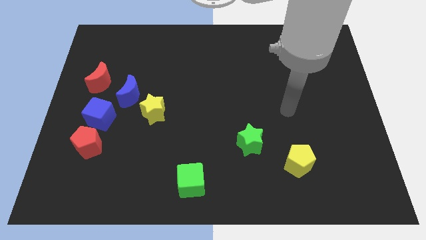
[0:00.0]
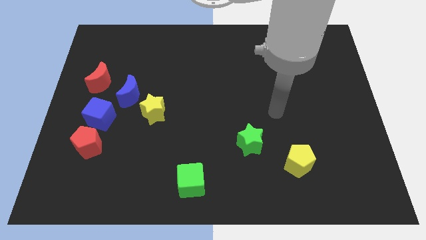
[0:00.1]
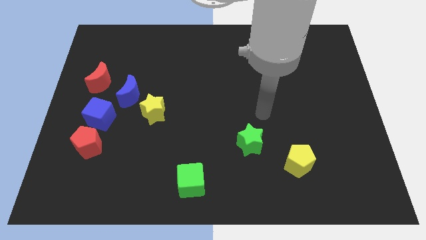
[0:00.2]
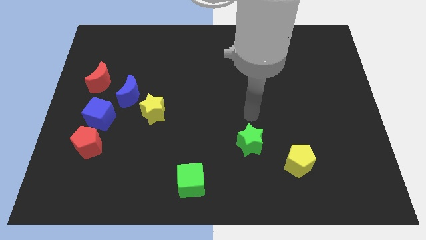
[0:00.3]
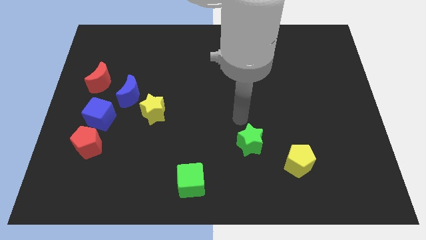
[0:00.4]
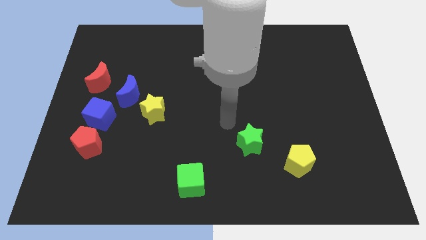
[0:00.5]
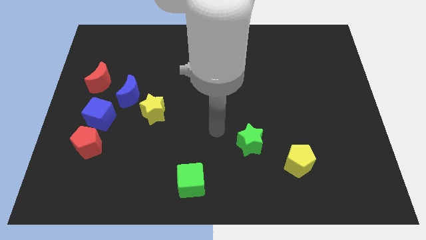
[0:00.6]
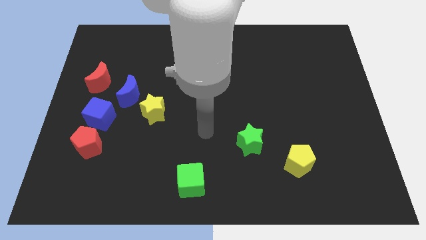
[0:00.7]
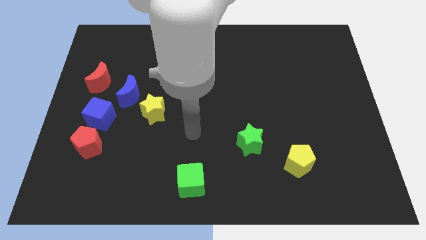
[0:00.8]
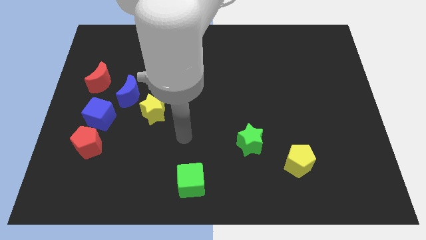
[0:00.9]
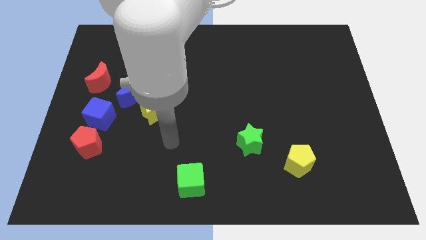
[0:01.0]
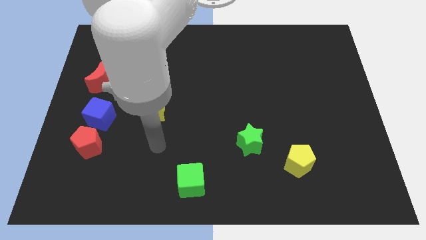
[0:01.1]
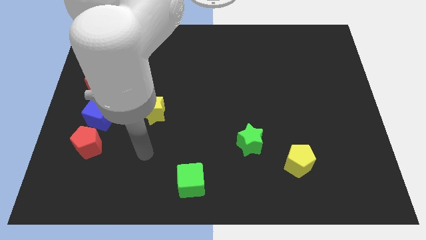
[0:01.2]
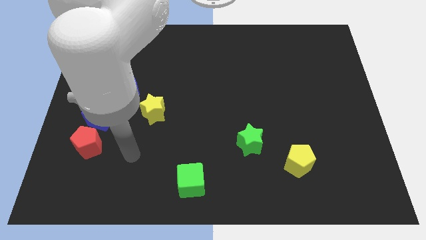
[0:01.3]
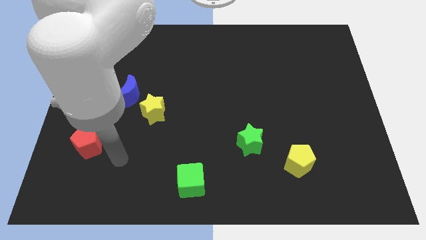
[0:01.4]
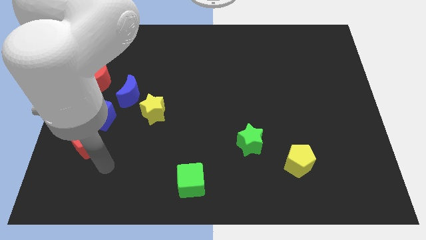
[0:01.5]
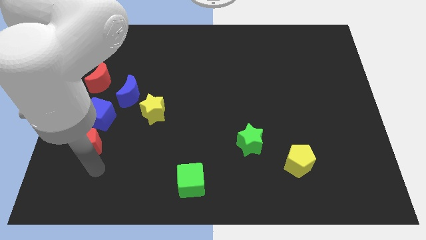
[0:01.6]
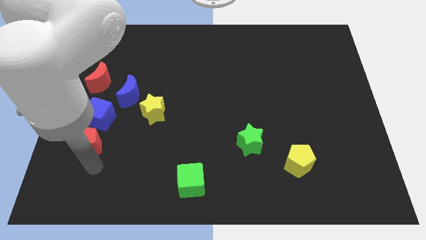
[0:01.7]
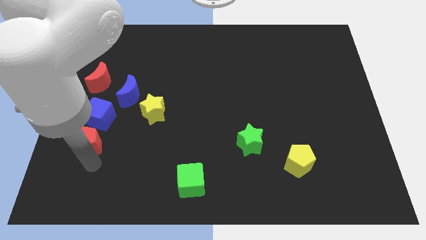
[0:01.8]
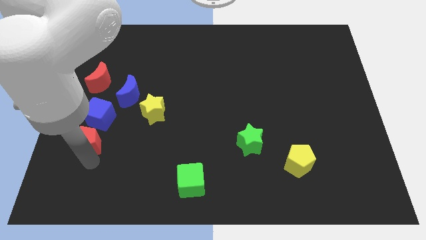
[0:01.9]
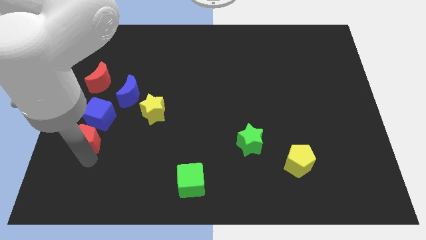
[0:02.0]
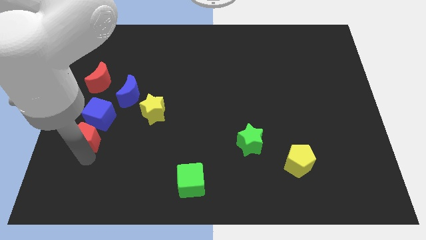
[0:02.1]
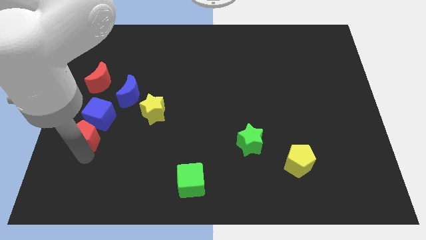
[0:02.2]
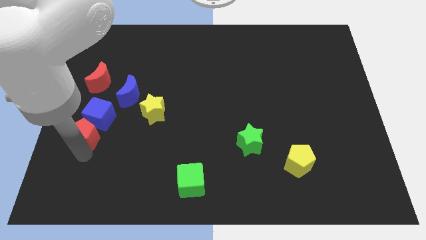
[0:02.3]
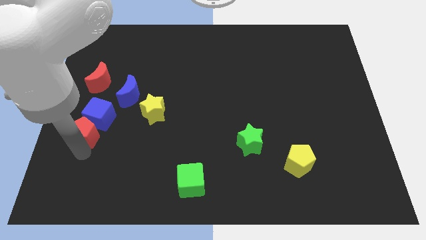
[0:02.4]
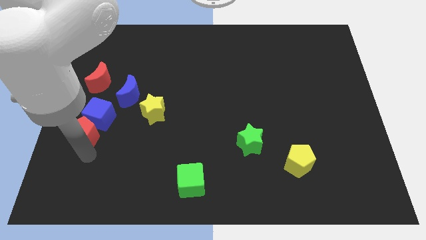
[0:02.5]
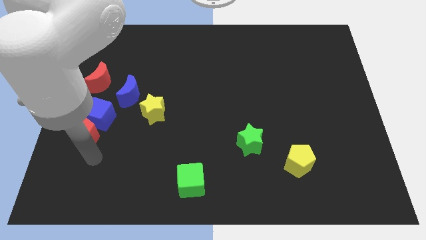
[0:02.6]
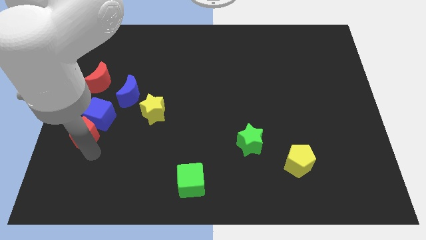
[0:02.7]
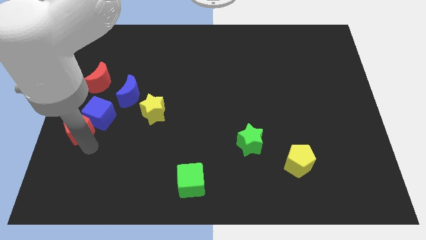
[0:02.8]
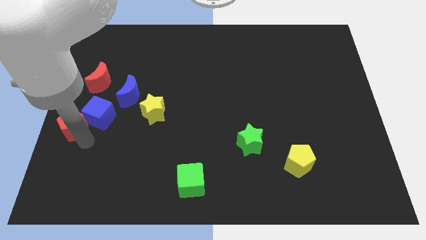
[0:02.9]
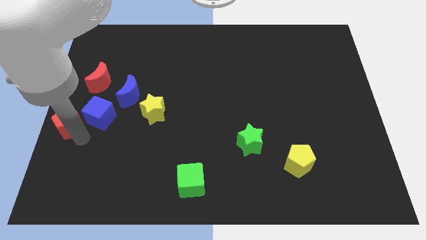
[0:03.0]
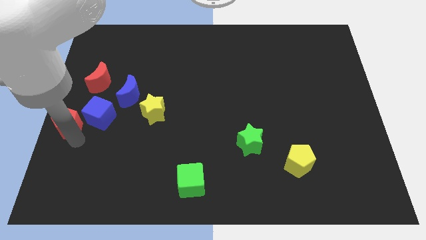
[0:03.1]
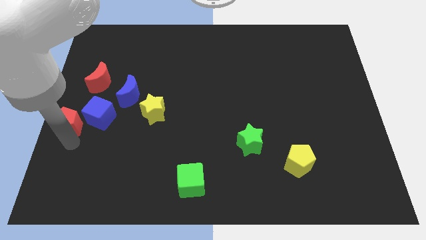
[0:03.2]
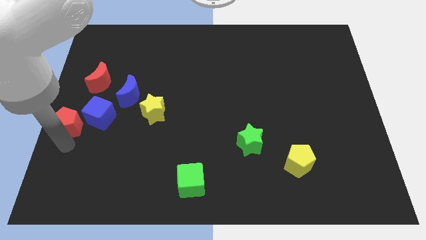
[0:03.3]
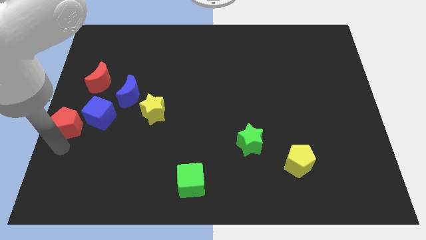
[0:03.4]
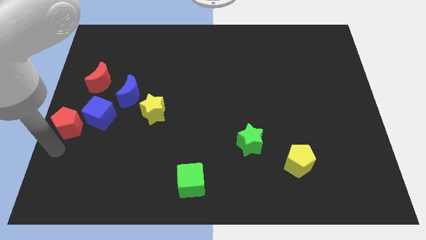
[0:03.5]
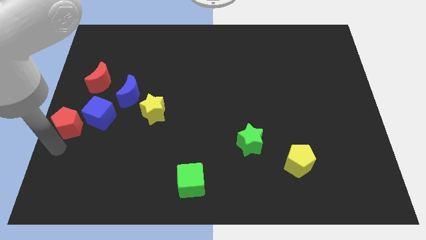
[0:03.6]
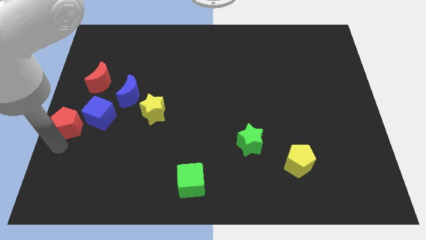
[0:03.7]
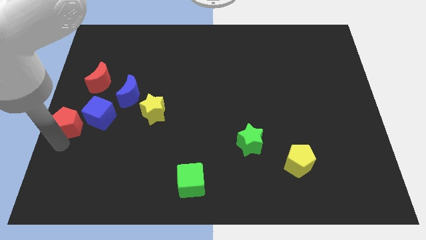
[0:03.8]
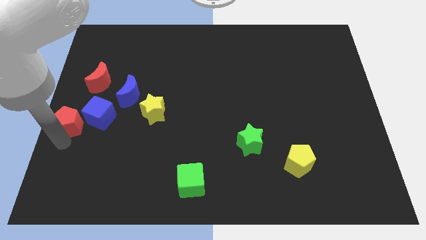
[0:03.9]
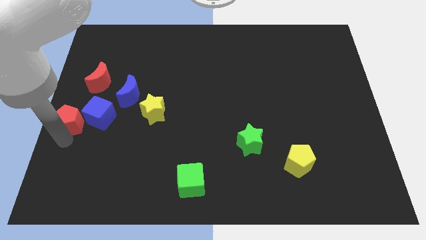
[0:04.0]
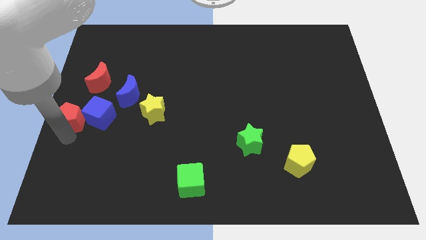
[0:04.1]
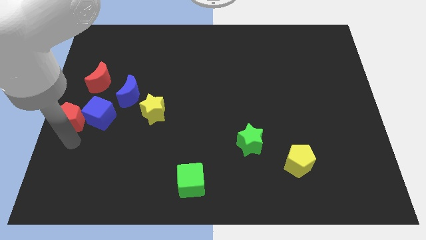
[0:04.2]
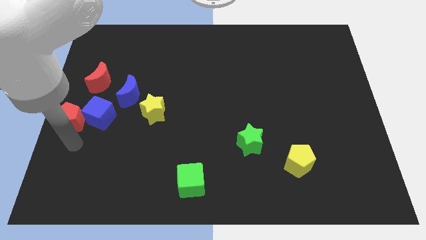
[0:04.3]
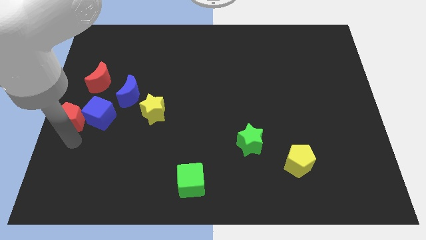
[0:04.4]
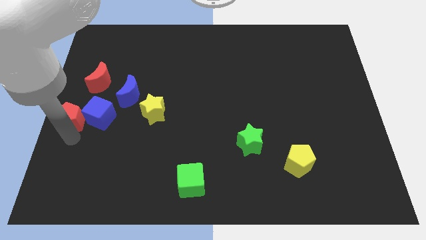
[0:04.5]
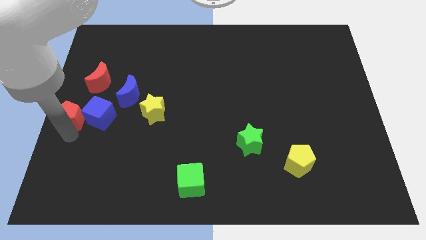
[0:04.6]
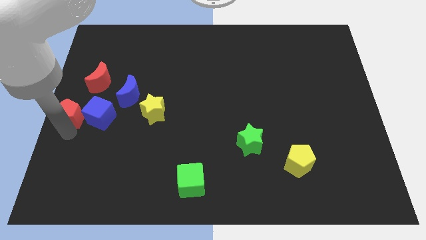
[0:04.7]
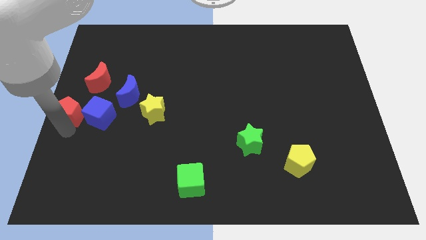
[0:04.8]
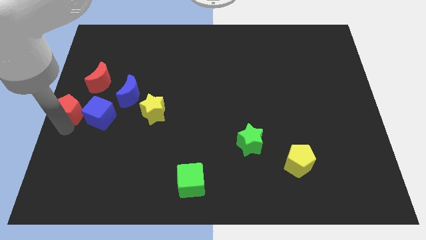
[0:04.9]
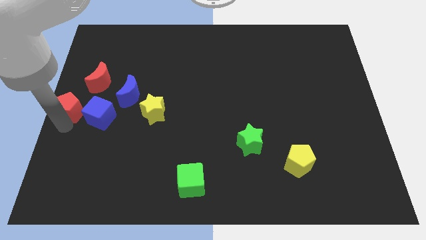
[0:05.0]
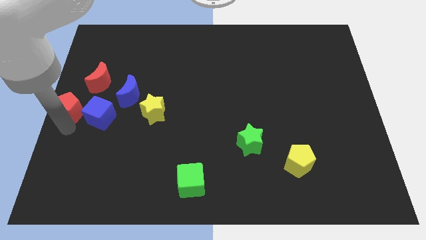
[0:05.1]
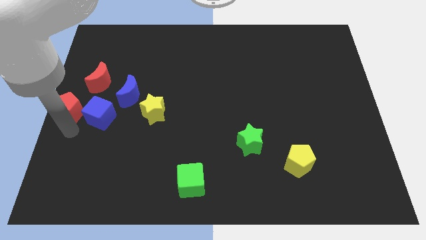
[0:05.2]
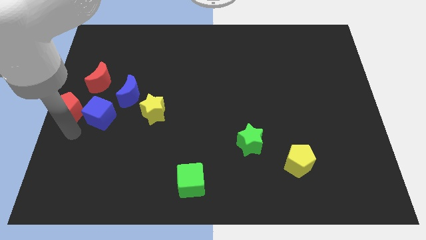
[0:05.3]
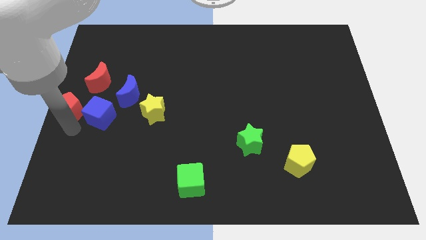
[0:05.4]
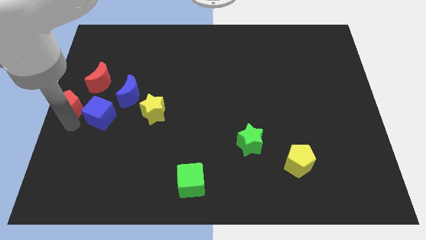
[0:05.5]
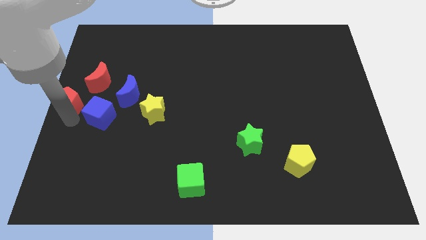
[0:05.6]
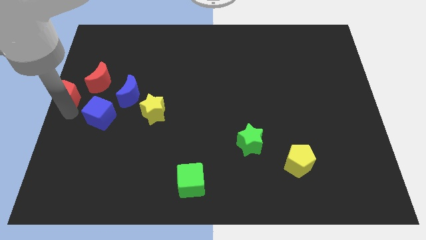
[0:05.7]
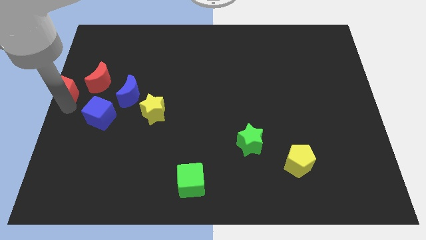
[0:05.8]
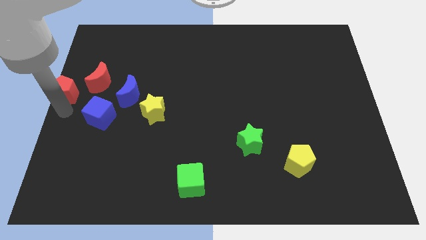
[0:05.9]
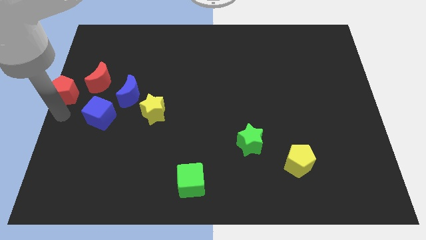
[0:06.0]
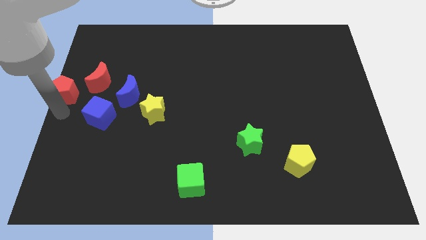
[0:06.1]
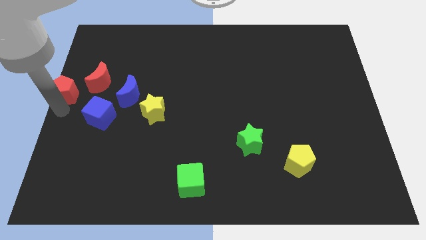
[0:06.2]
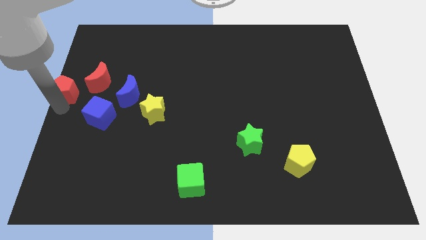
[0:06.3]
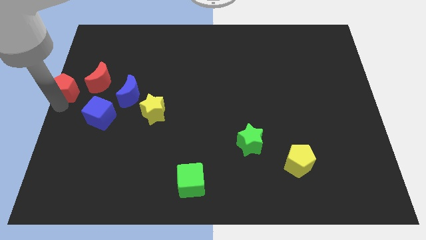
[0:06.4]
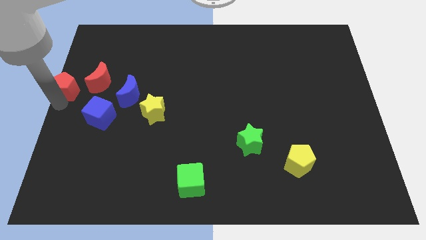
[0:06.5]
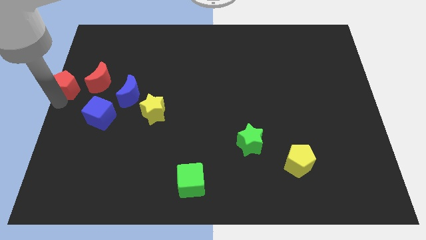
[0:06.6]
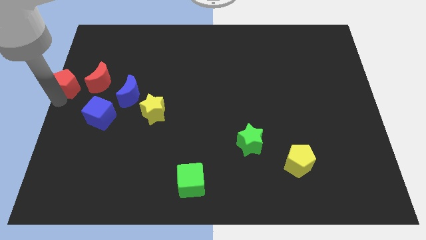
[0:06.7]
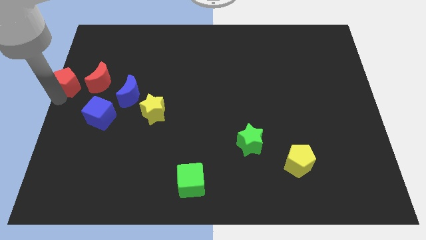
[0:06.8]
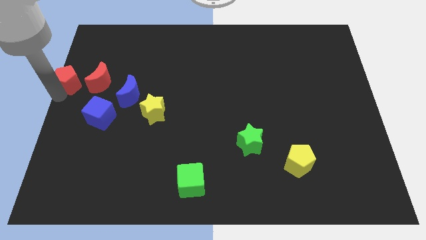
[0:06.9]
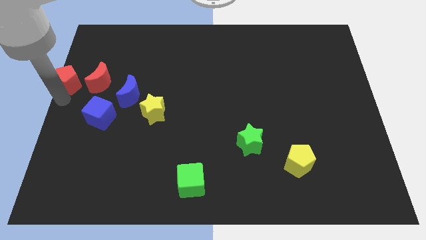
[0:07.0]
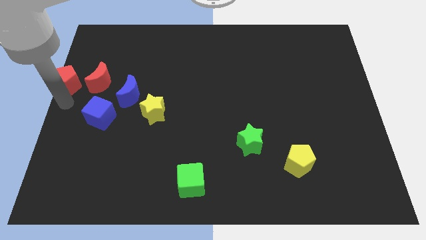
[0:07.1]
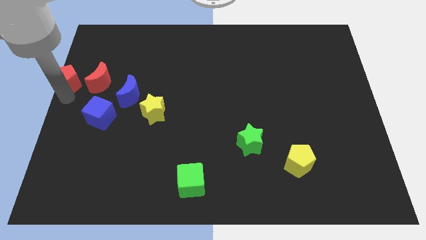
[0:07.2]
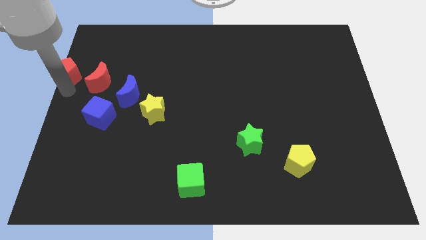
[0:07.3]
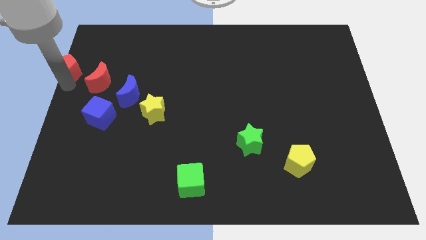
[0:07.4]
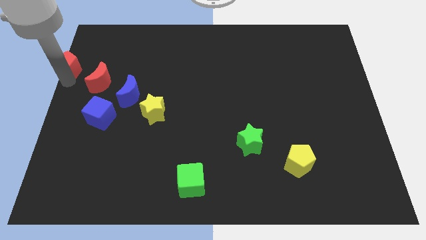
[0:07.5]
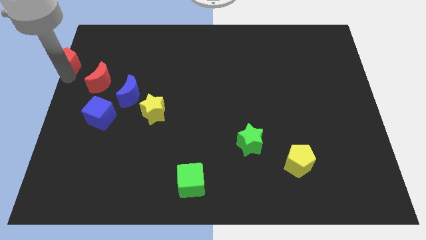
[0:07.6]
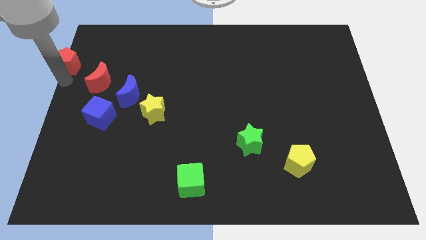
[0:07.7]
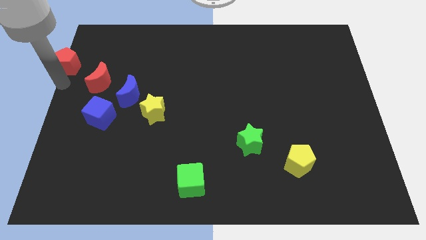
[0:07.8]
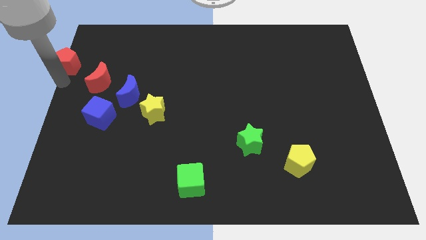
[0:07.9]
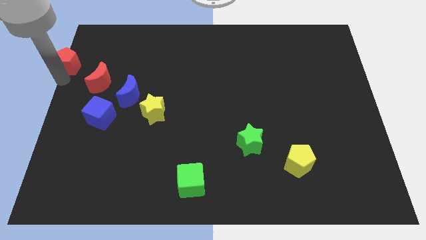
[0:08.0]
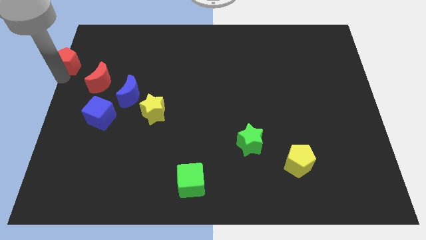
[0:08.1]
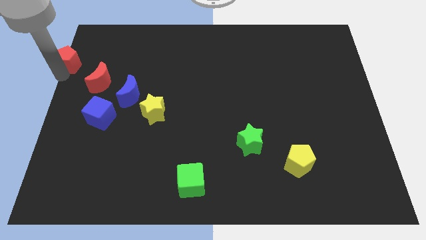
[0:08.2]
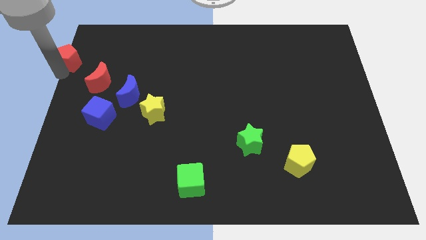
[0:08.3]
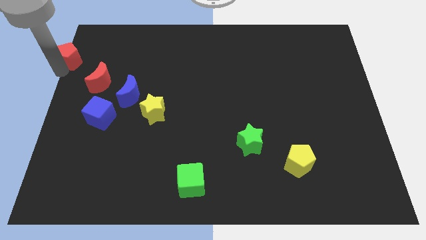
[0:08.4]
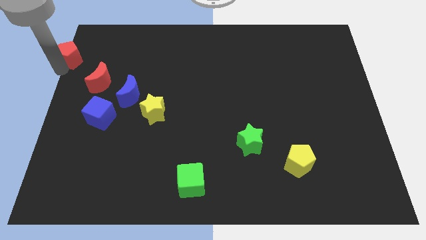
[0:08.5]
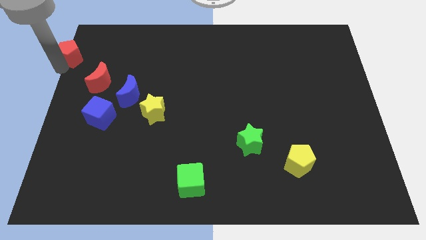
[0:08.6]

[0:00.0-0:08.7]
move the red pentagon to the top left of the board
